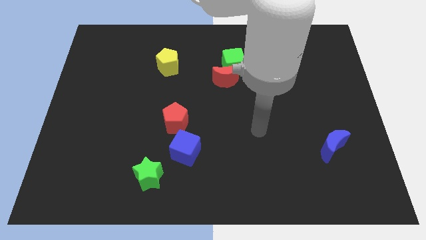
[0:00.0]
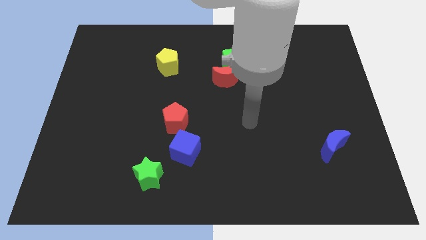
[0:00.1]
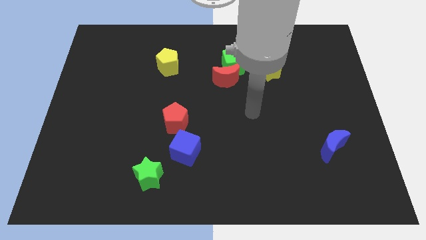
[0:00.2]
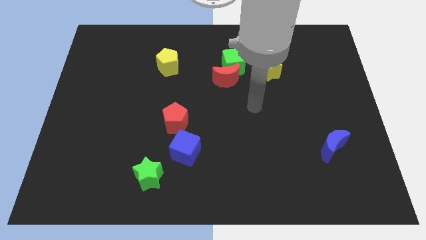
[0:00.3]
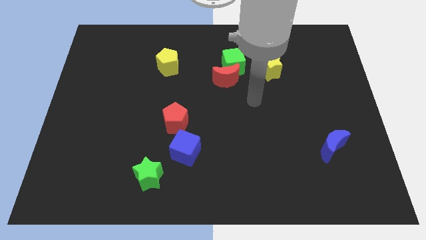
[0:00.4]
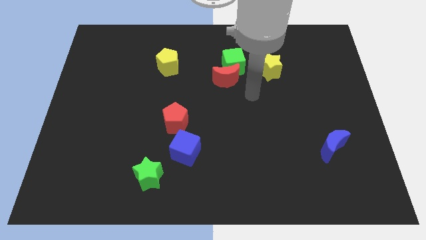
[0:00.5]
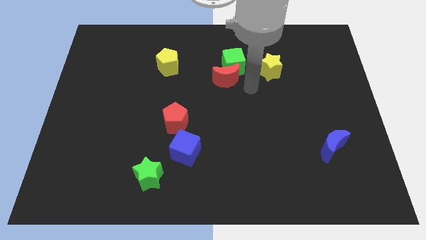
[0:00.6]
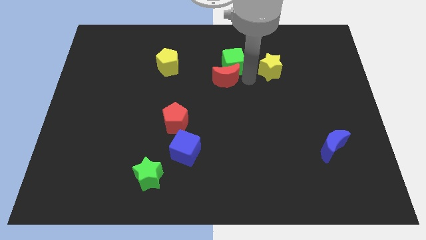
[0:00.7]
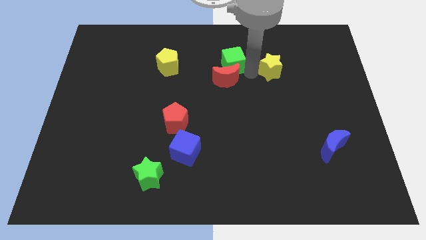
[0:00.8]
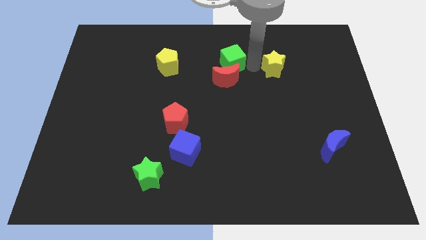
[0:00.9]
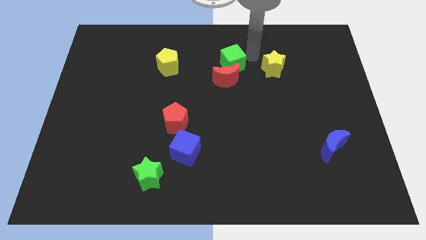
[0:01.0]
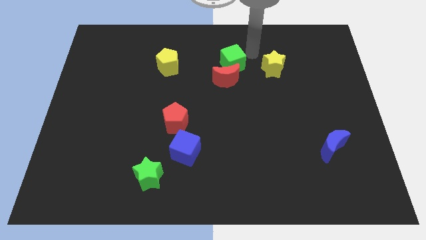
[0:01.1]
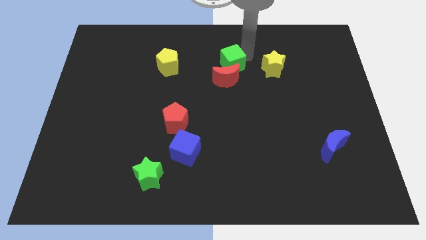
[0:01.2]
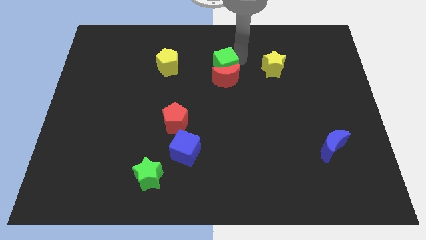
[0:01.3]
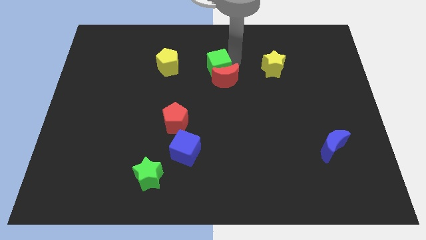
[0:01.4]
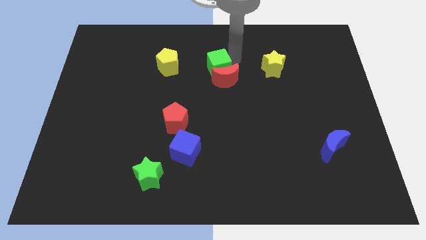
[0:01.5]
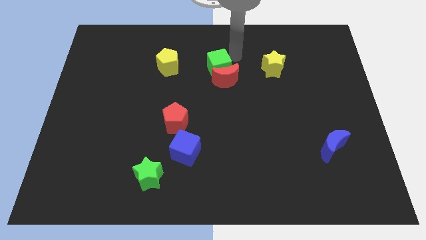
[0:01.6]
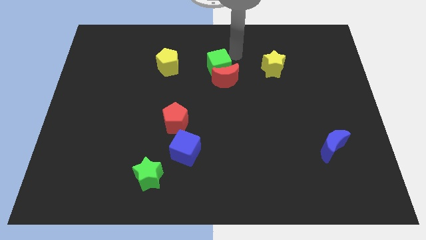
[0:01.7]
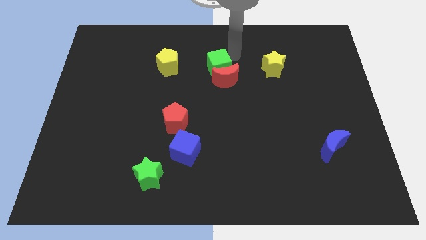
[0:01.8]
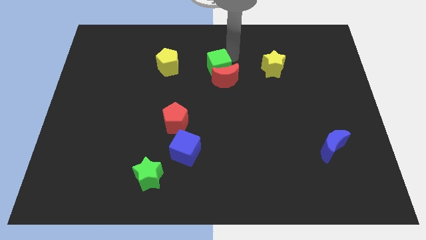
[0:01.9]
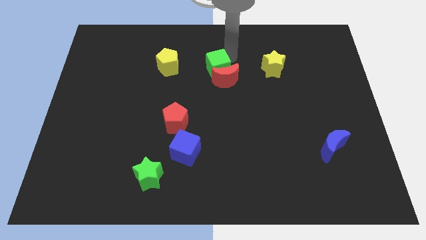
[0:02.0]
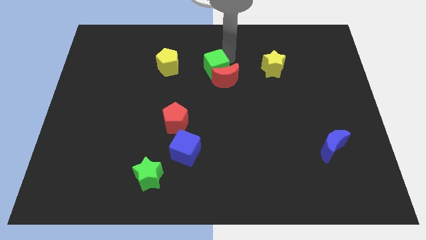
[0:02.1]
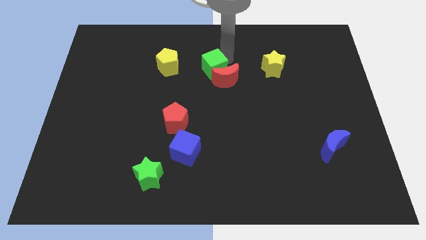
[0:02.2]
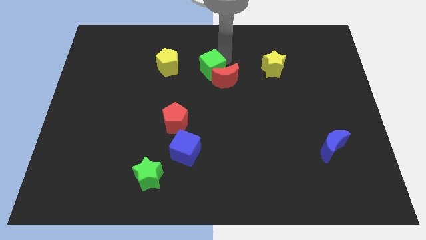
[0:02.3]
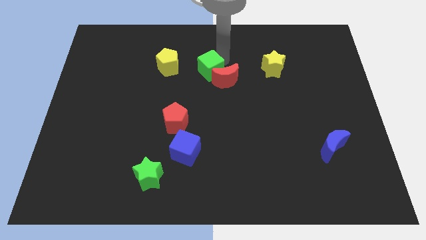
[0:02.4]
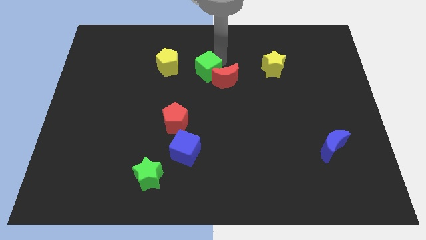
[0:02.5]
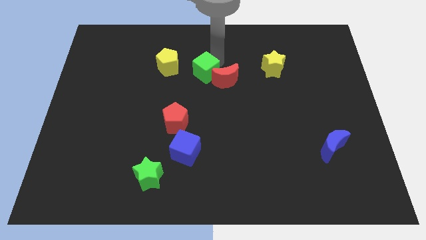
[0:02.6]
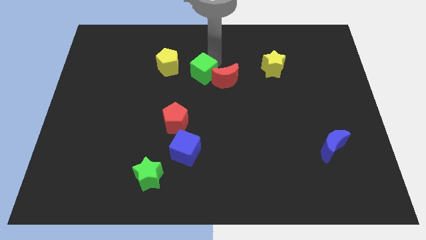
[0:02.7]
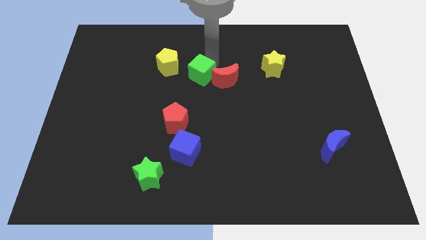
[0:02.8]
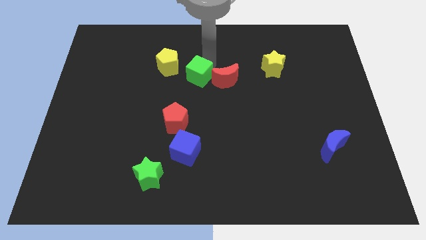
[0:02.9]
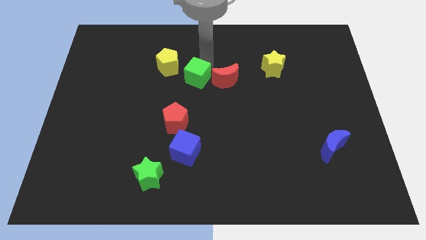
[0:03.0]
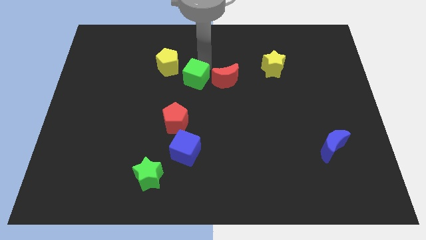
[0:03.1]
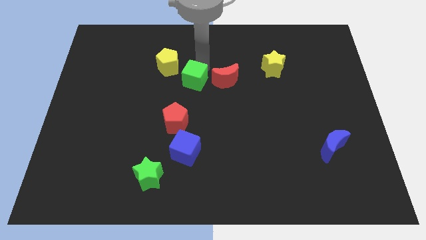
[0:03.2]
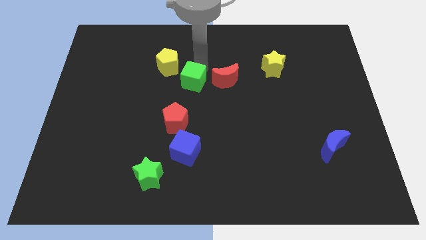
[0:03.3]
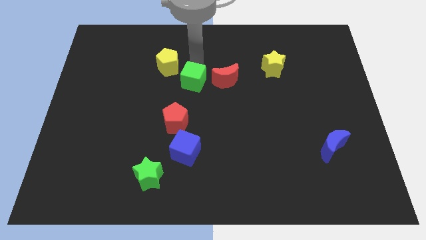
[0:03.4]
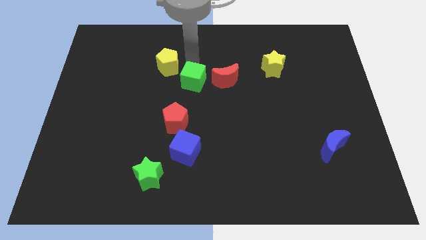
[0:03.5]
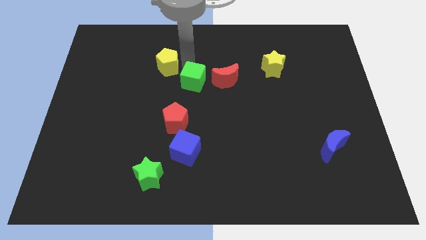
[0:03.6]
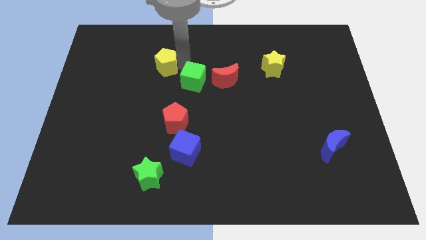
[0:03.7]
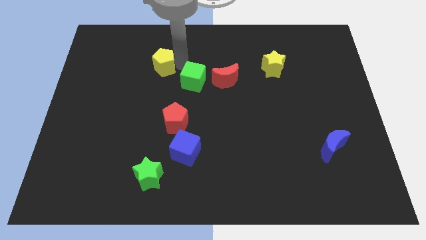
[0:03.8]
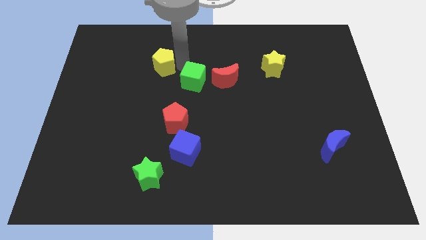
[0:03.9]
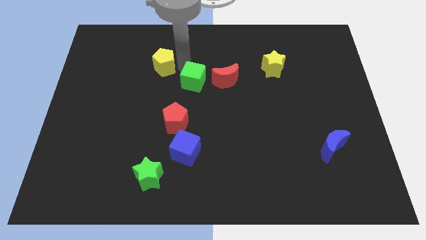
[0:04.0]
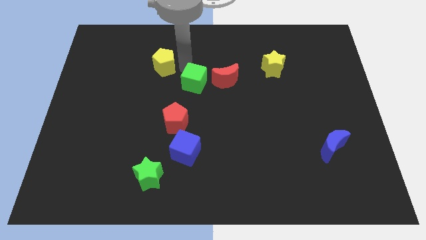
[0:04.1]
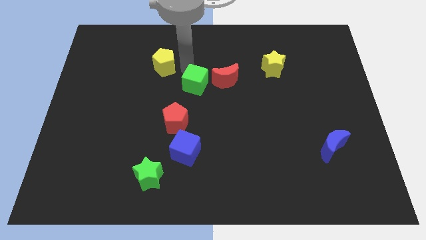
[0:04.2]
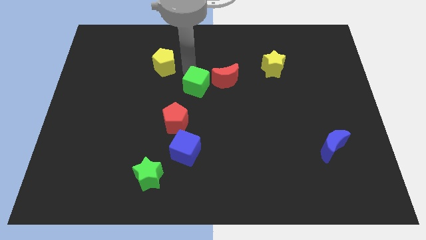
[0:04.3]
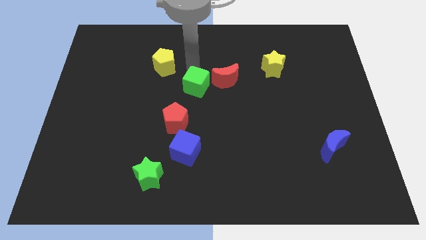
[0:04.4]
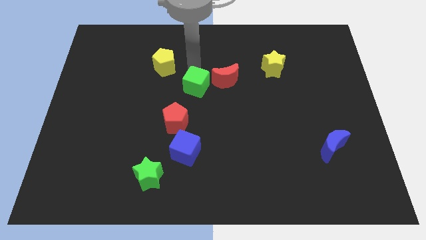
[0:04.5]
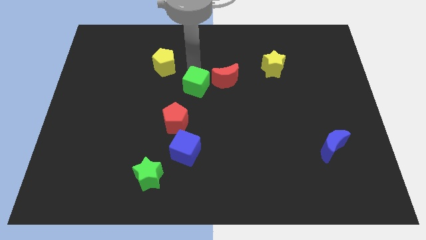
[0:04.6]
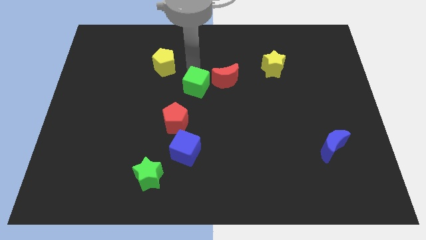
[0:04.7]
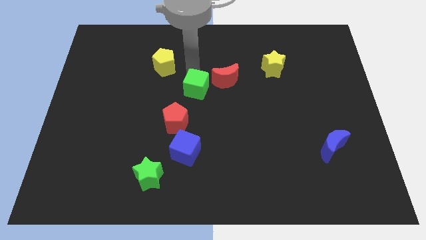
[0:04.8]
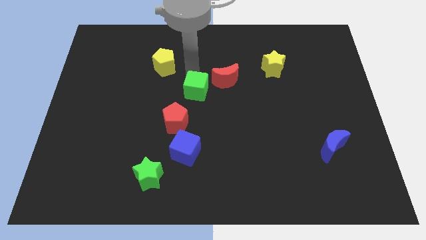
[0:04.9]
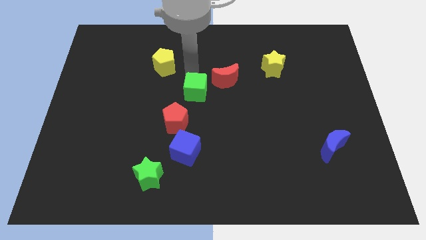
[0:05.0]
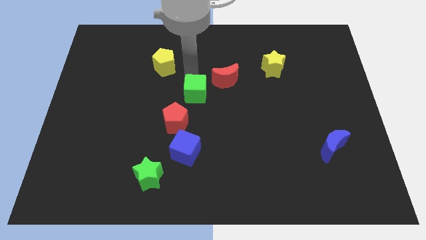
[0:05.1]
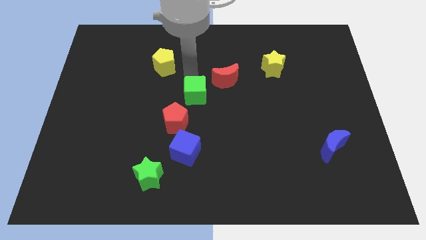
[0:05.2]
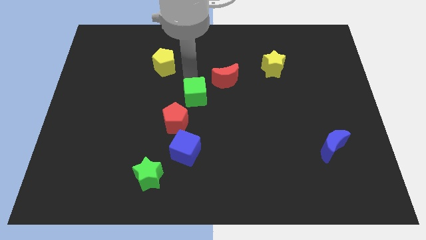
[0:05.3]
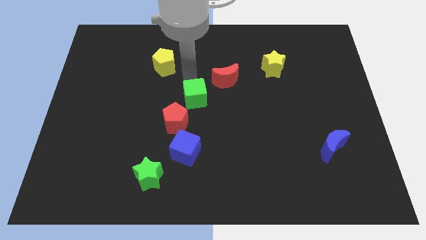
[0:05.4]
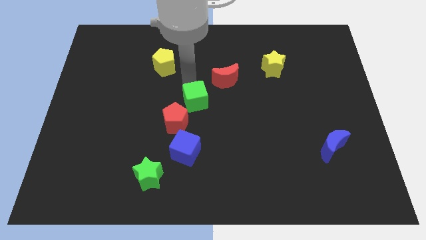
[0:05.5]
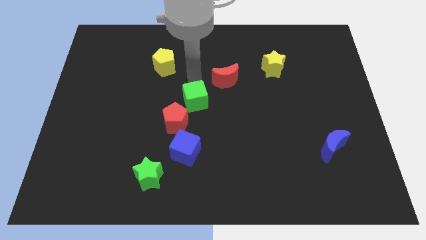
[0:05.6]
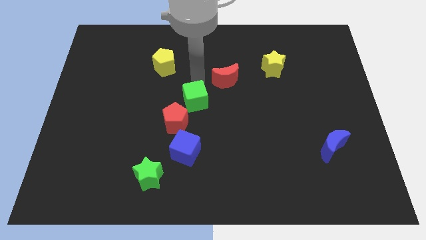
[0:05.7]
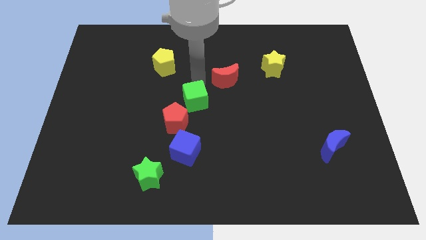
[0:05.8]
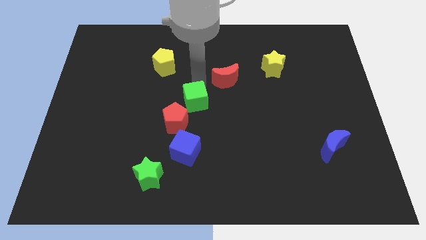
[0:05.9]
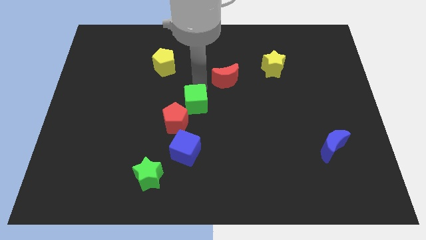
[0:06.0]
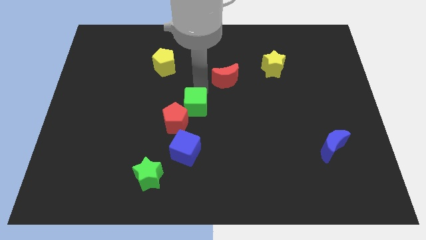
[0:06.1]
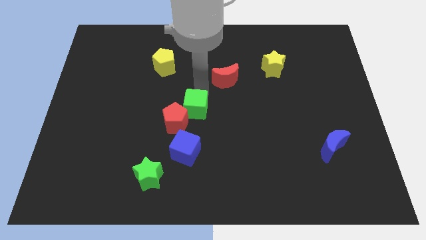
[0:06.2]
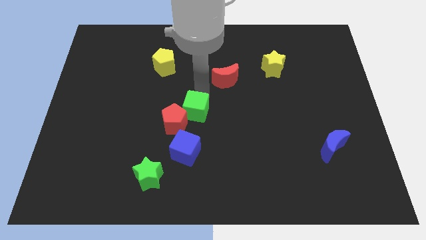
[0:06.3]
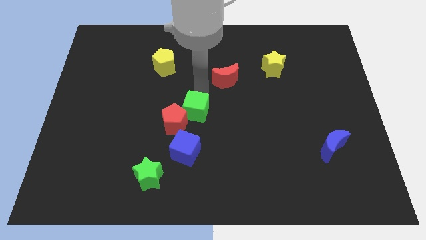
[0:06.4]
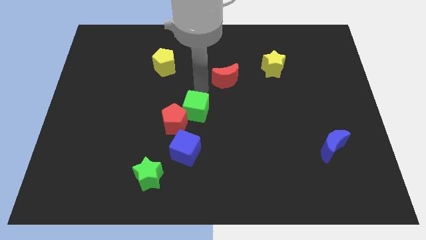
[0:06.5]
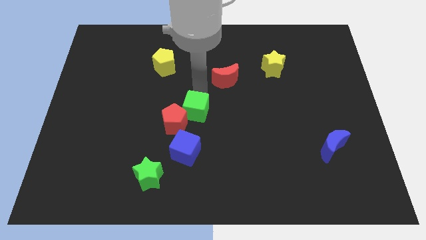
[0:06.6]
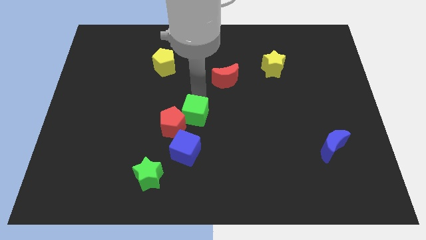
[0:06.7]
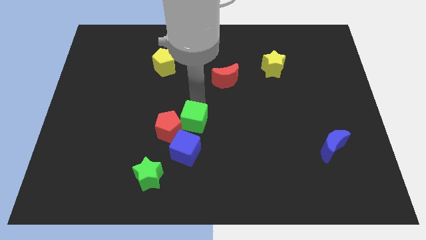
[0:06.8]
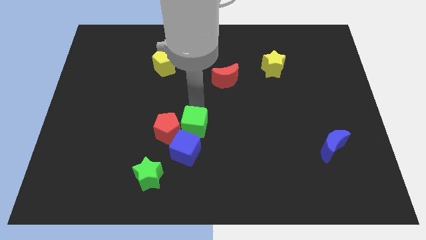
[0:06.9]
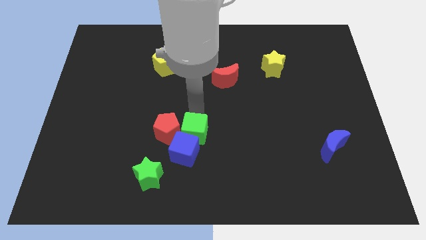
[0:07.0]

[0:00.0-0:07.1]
move the green cube to the blue cube
